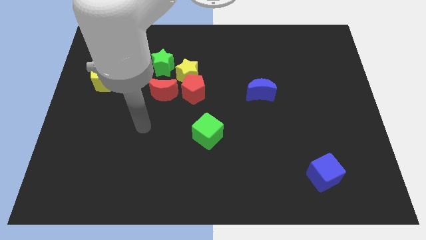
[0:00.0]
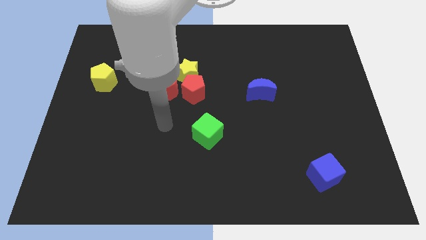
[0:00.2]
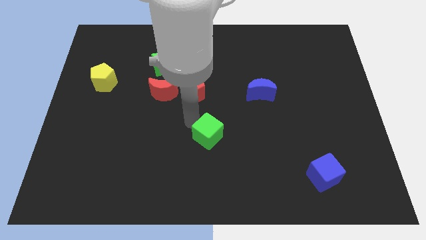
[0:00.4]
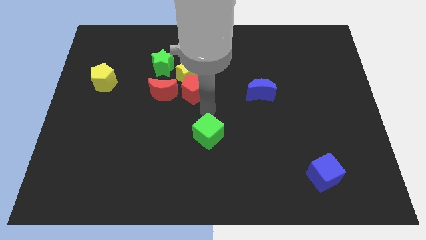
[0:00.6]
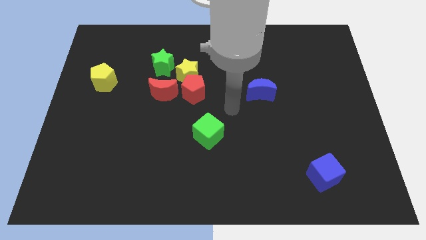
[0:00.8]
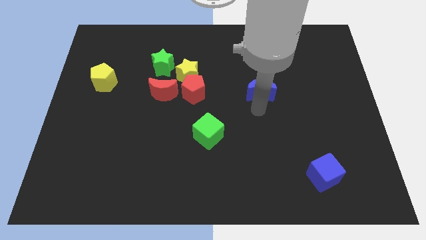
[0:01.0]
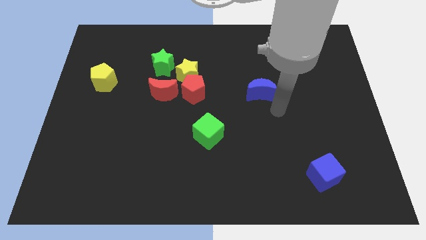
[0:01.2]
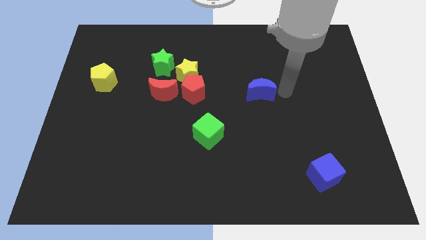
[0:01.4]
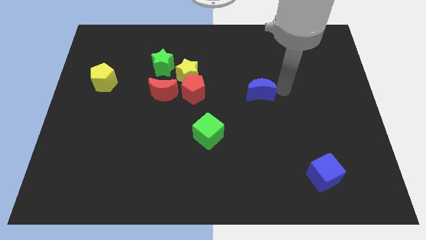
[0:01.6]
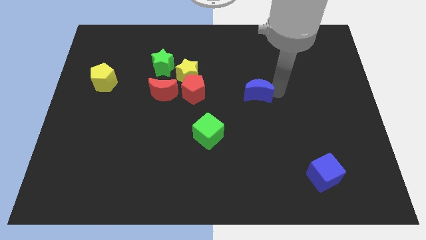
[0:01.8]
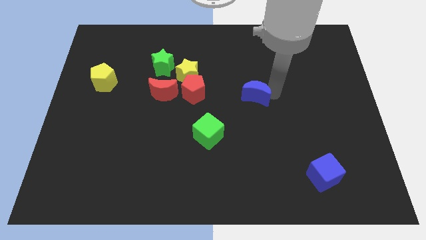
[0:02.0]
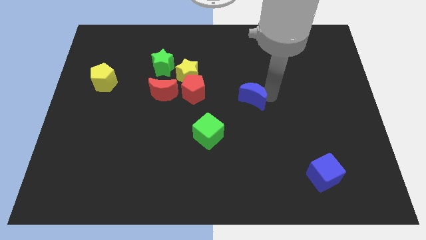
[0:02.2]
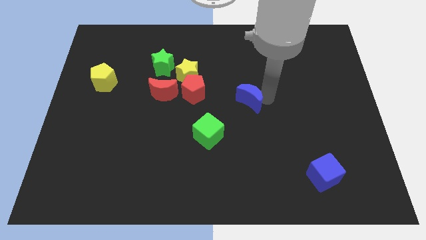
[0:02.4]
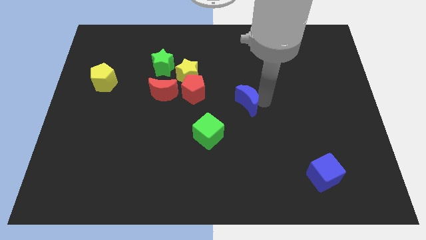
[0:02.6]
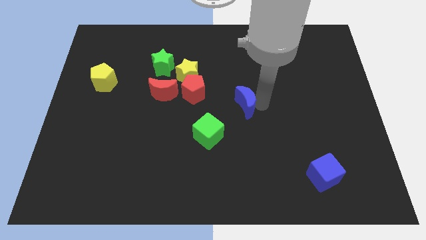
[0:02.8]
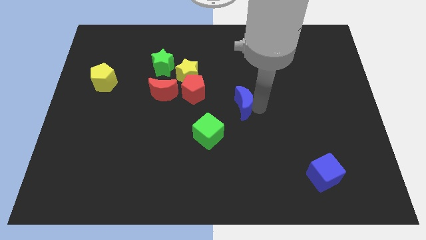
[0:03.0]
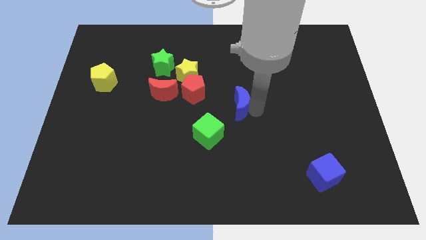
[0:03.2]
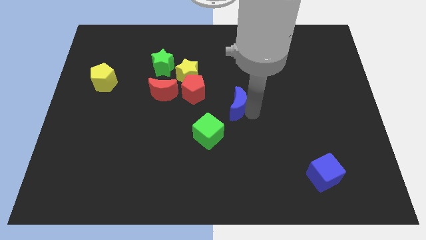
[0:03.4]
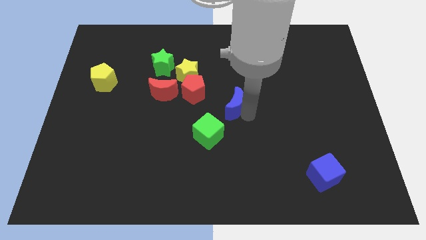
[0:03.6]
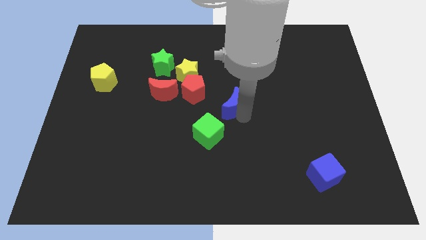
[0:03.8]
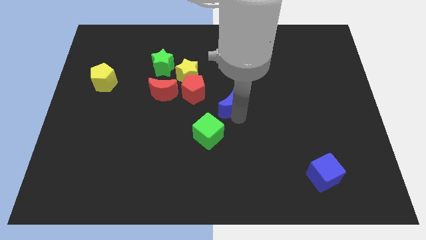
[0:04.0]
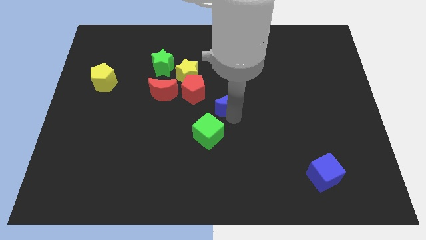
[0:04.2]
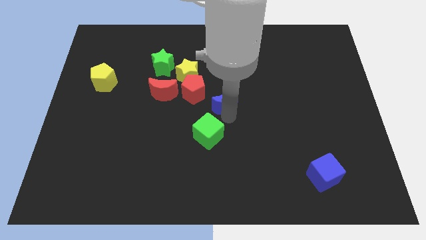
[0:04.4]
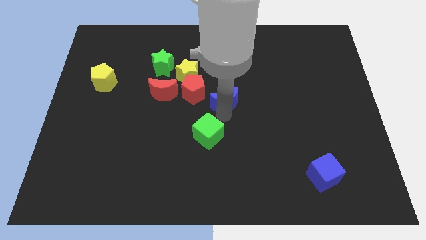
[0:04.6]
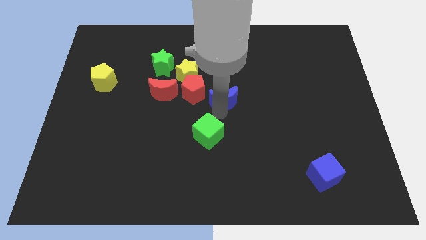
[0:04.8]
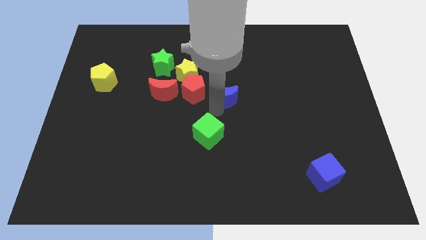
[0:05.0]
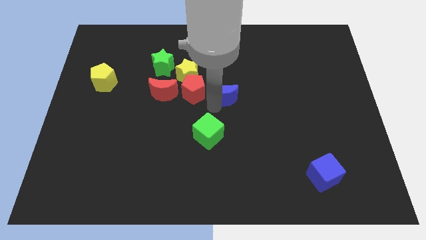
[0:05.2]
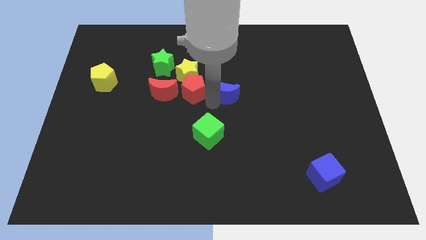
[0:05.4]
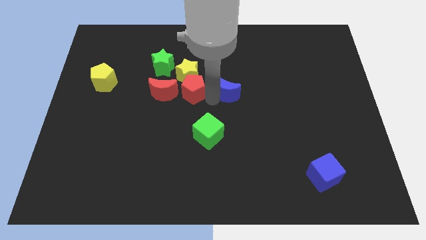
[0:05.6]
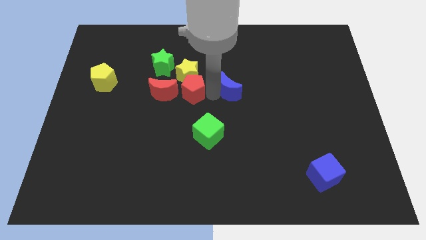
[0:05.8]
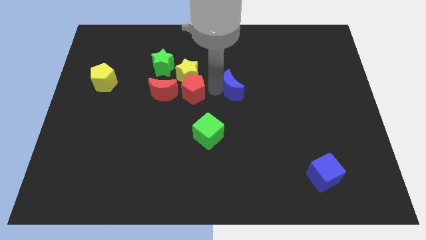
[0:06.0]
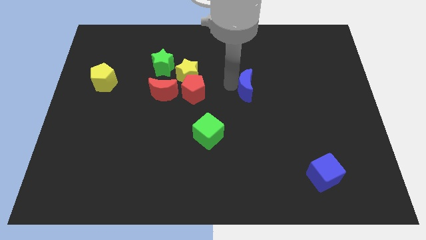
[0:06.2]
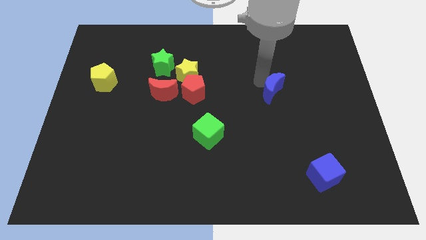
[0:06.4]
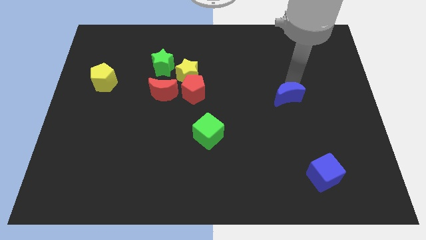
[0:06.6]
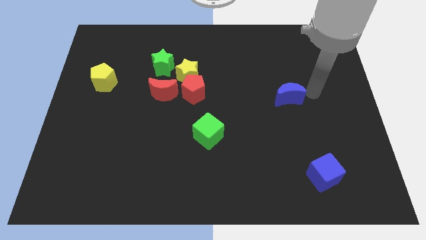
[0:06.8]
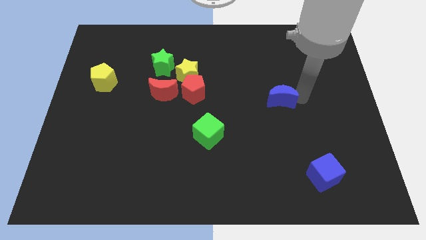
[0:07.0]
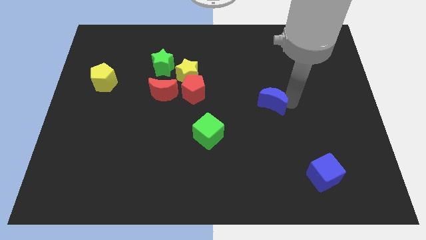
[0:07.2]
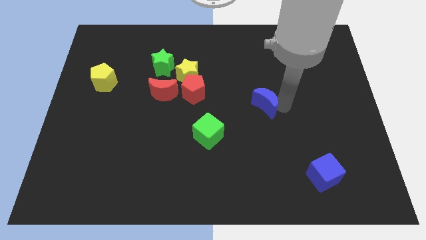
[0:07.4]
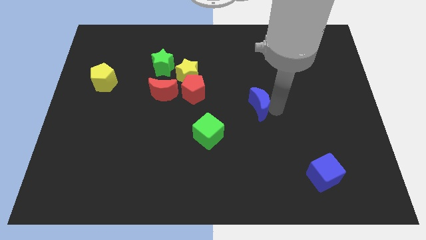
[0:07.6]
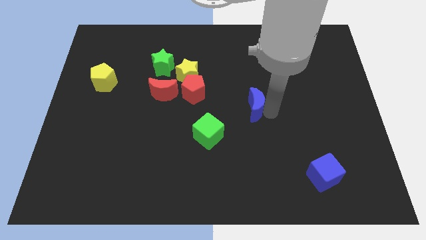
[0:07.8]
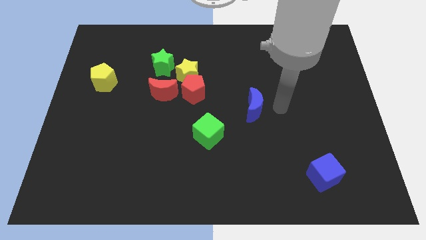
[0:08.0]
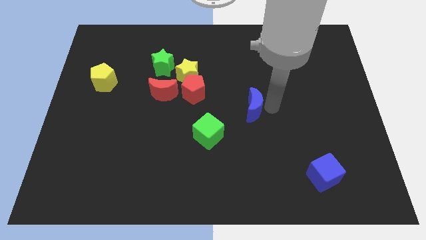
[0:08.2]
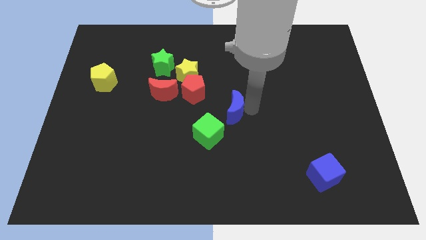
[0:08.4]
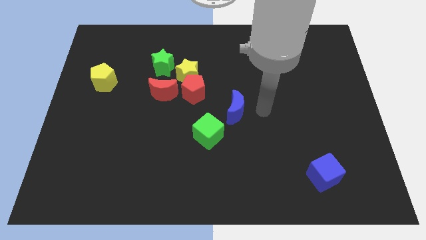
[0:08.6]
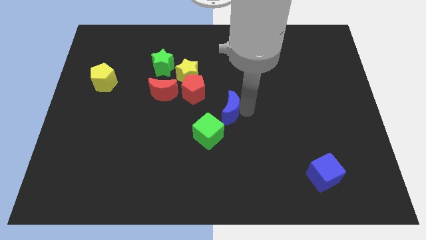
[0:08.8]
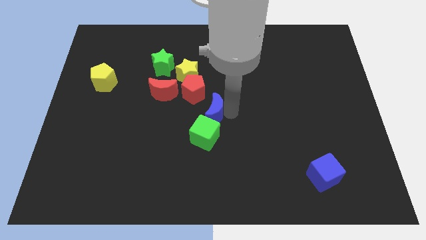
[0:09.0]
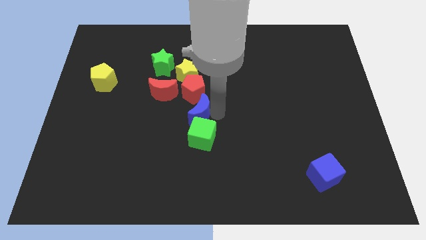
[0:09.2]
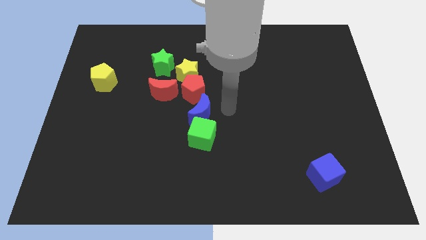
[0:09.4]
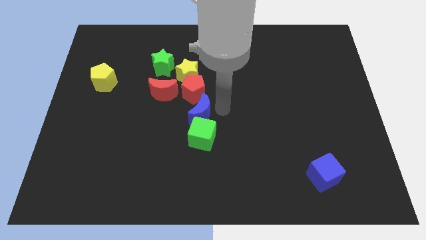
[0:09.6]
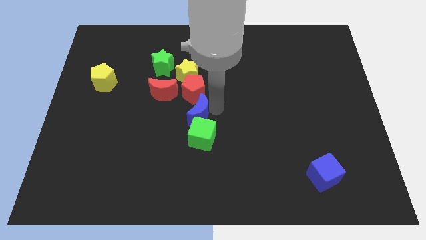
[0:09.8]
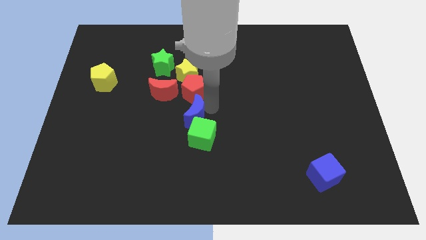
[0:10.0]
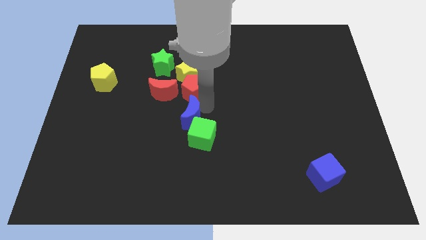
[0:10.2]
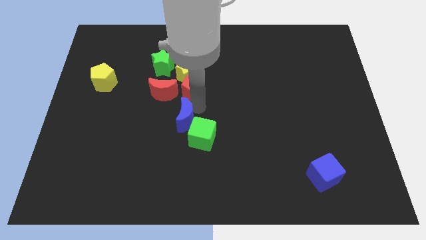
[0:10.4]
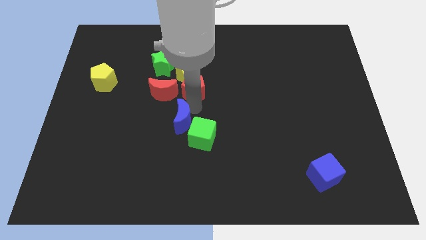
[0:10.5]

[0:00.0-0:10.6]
push the blue moon left of the green cube

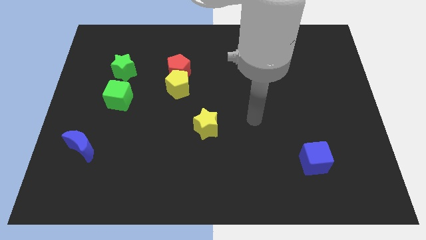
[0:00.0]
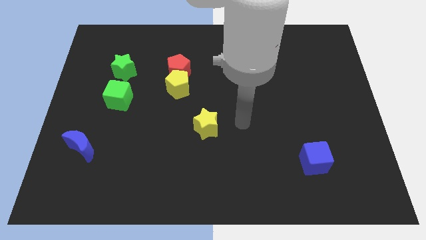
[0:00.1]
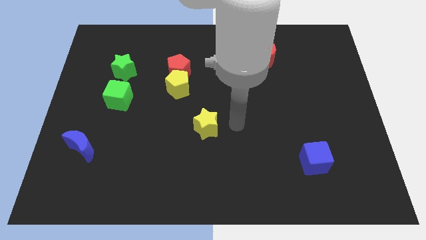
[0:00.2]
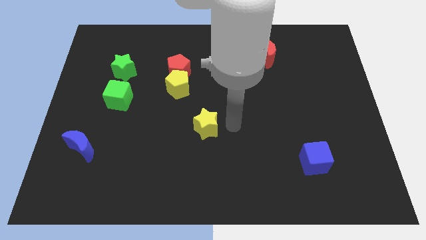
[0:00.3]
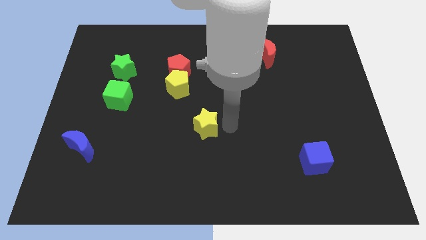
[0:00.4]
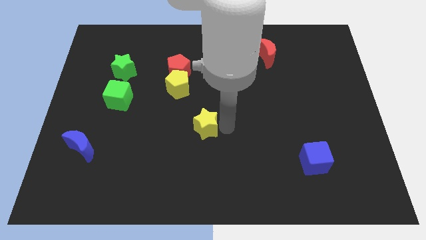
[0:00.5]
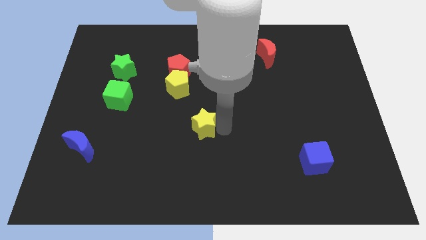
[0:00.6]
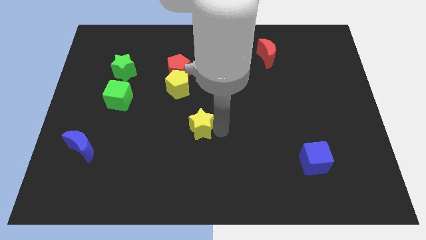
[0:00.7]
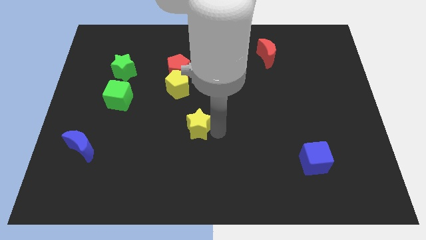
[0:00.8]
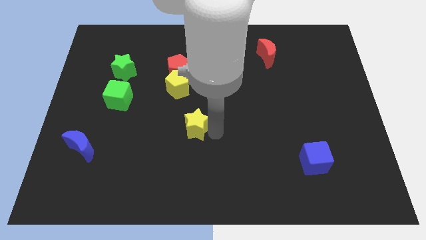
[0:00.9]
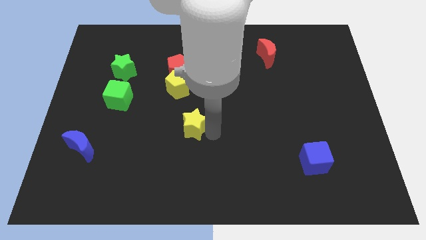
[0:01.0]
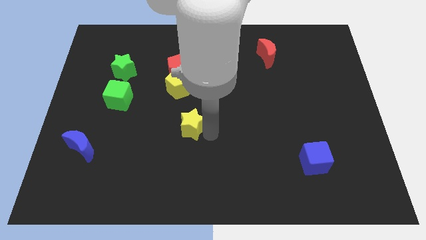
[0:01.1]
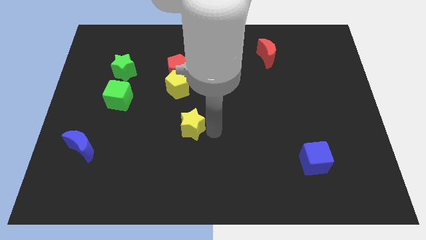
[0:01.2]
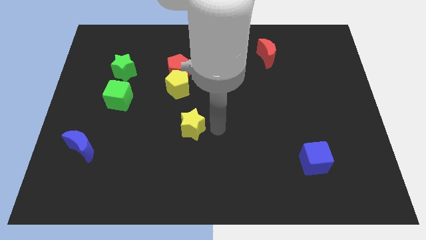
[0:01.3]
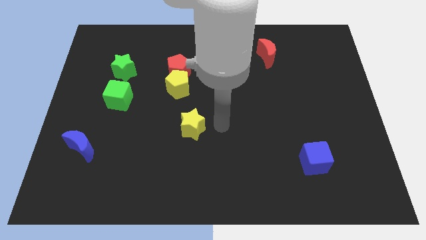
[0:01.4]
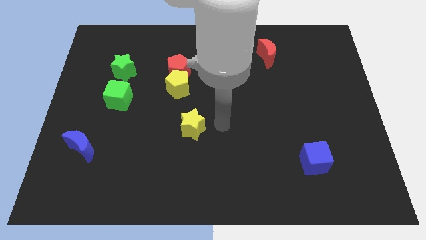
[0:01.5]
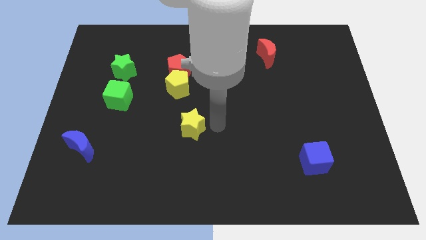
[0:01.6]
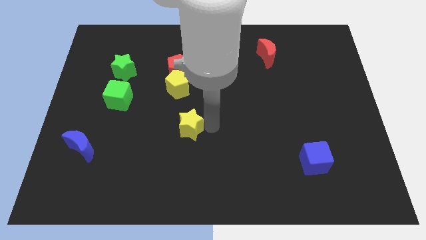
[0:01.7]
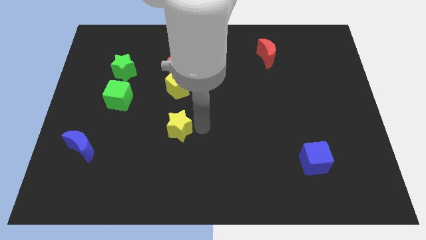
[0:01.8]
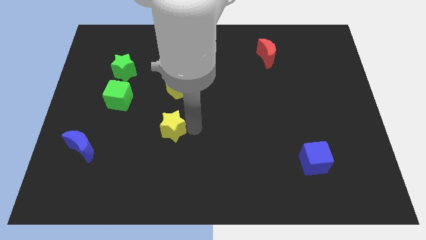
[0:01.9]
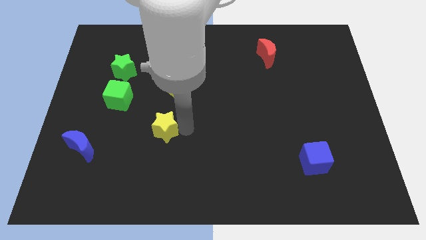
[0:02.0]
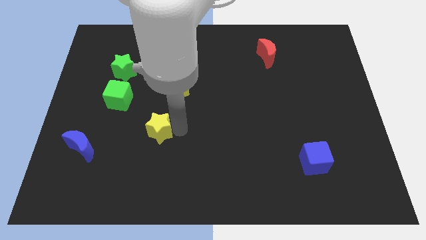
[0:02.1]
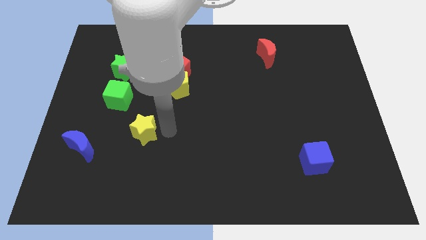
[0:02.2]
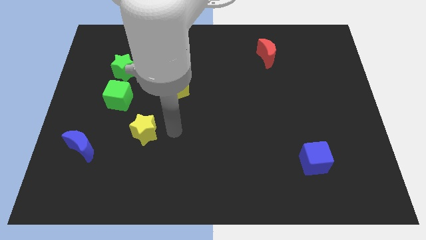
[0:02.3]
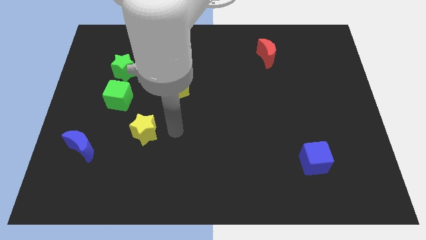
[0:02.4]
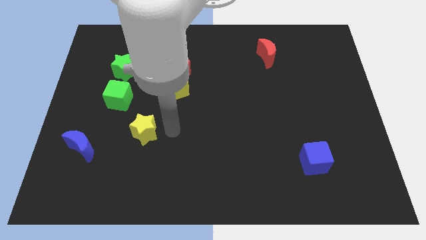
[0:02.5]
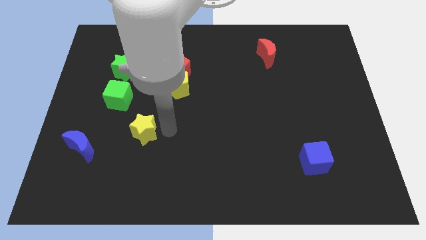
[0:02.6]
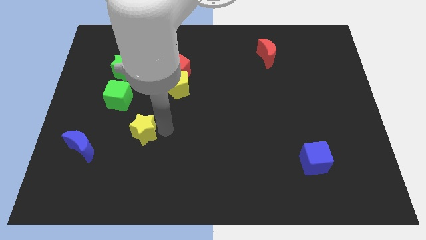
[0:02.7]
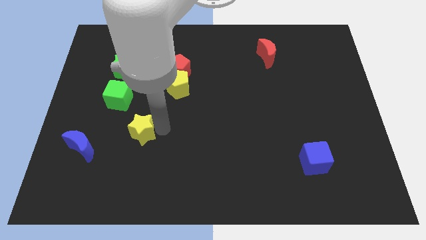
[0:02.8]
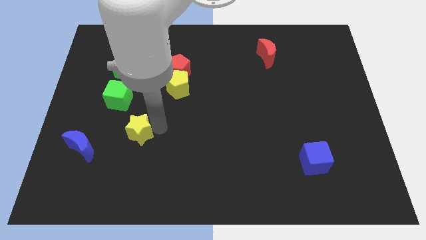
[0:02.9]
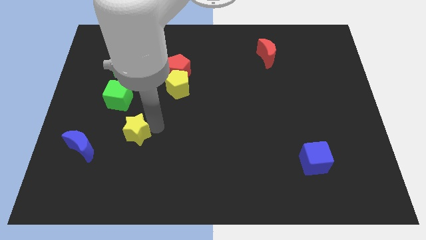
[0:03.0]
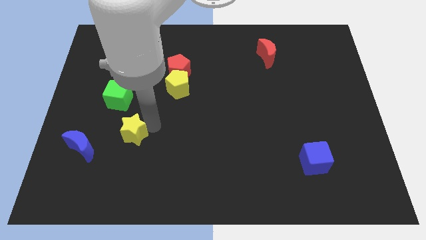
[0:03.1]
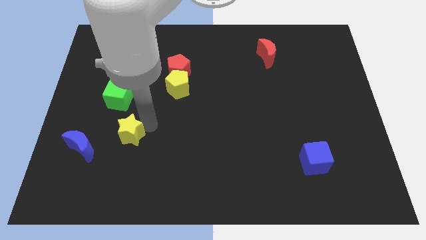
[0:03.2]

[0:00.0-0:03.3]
put the yellow star to the bottom side of the green cube
